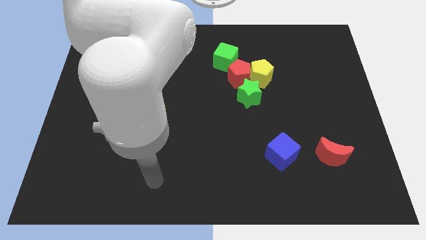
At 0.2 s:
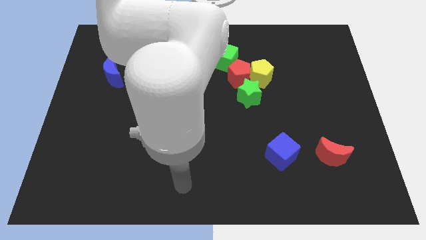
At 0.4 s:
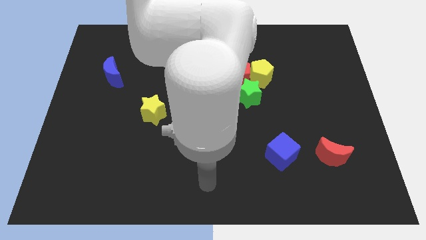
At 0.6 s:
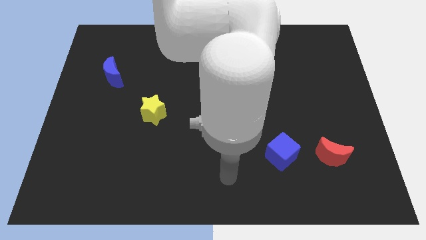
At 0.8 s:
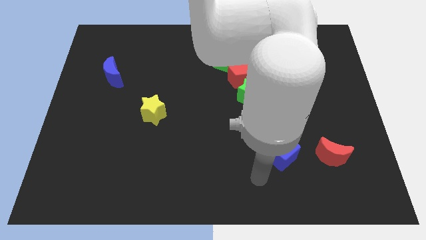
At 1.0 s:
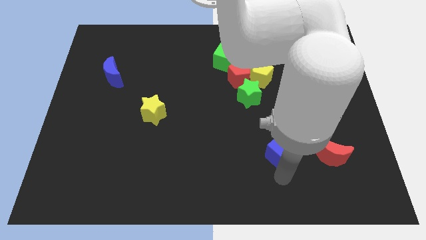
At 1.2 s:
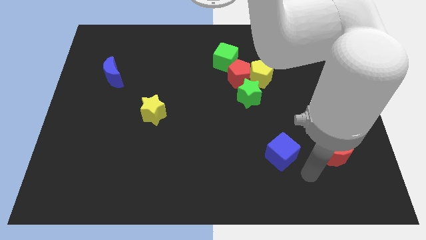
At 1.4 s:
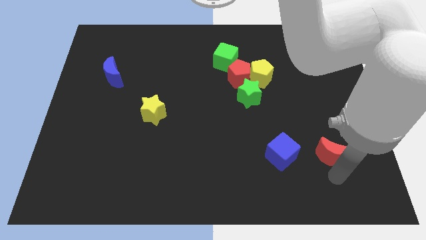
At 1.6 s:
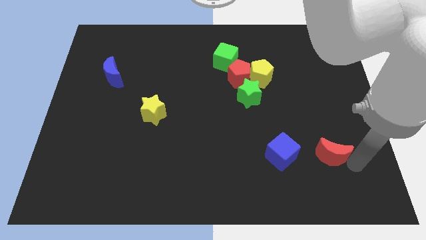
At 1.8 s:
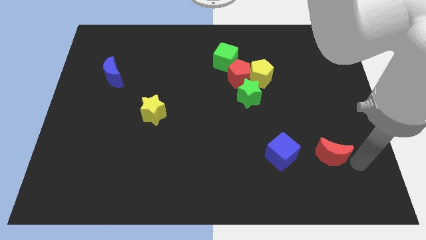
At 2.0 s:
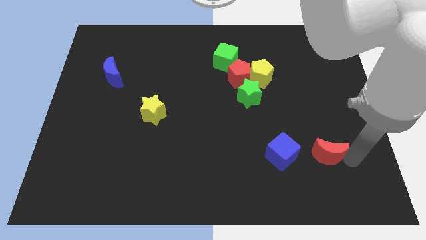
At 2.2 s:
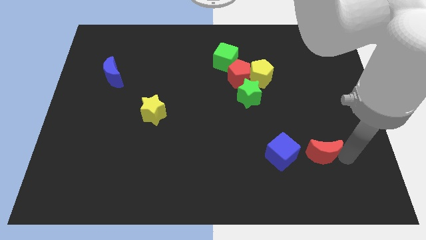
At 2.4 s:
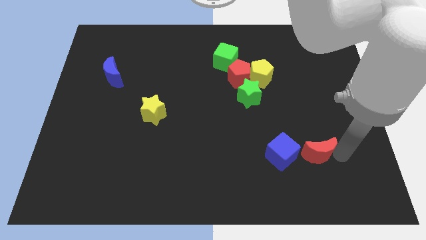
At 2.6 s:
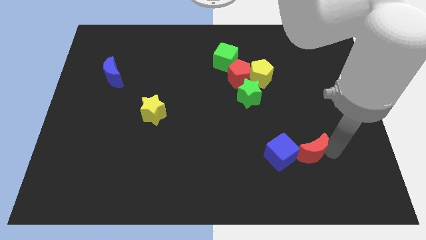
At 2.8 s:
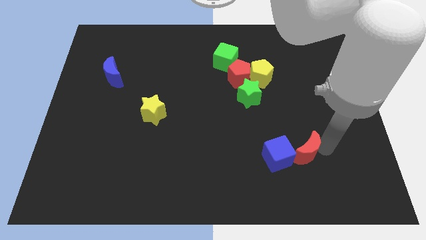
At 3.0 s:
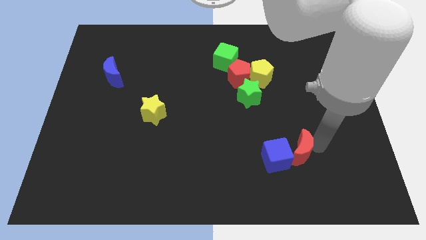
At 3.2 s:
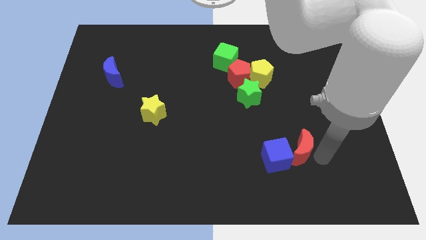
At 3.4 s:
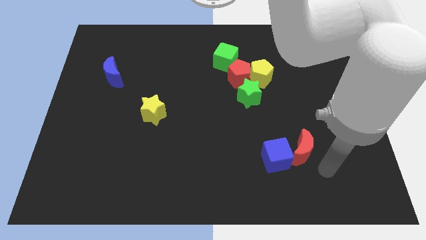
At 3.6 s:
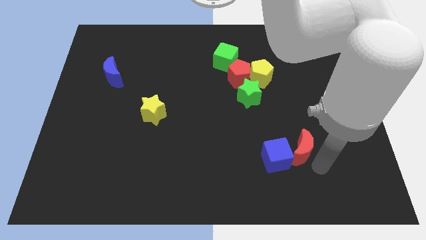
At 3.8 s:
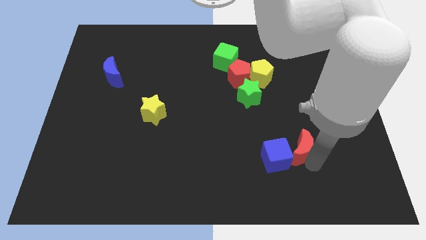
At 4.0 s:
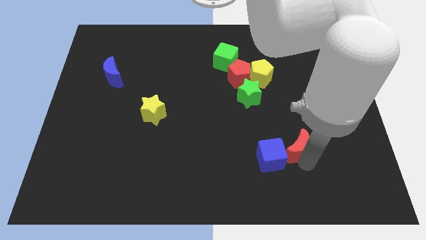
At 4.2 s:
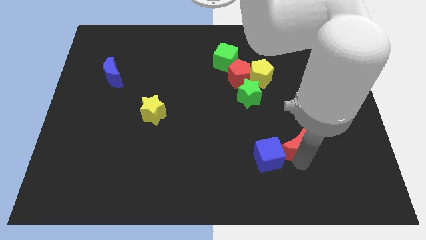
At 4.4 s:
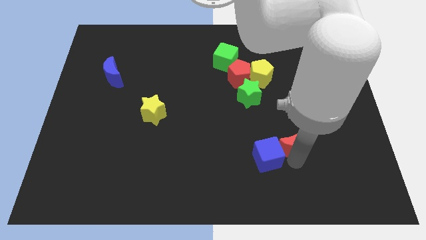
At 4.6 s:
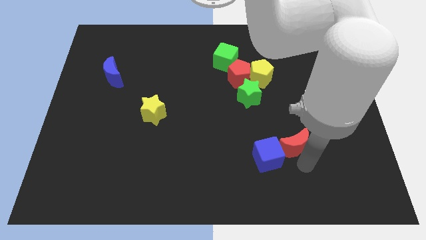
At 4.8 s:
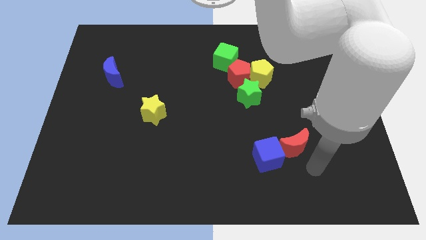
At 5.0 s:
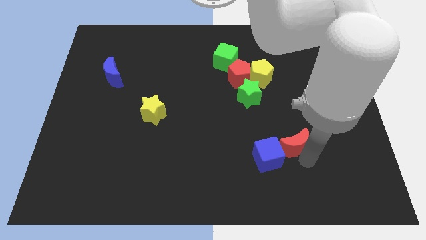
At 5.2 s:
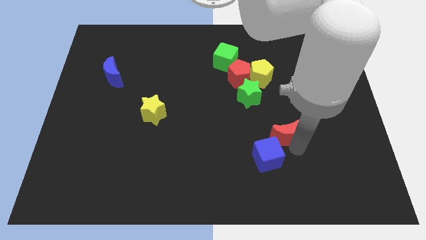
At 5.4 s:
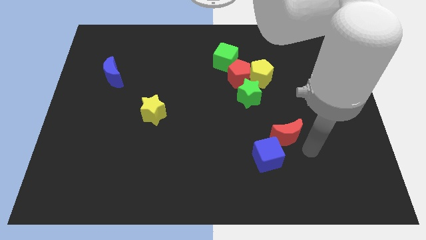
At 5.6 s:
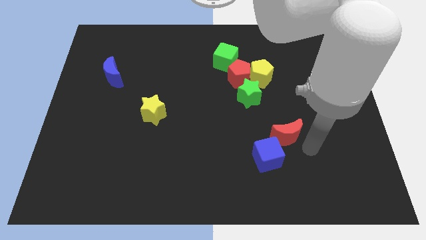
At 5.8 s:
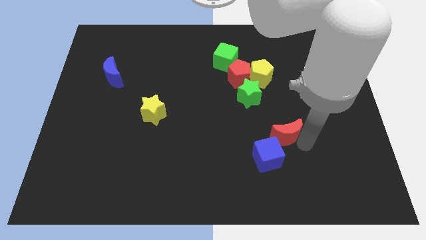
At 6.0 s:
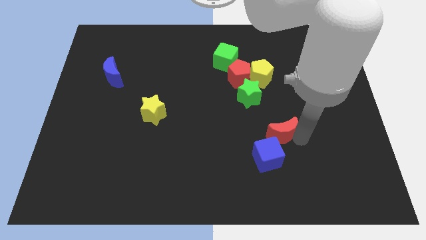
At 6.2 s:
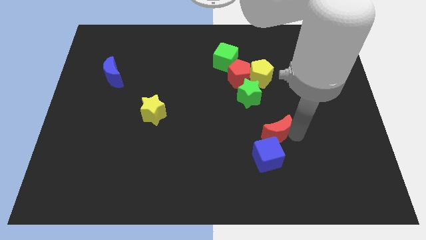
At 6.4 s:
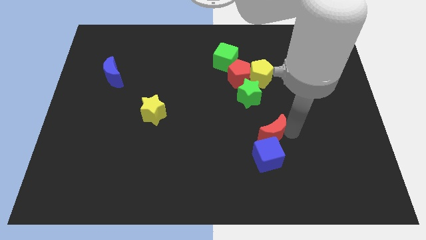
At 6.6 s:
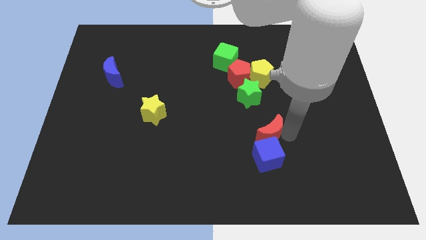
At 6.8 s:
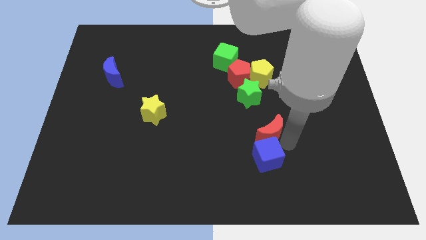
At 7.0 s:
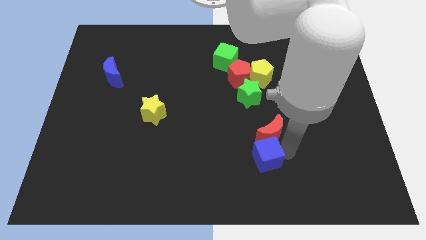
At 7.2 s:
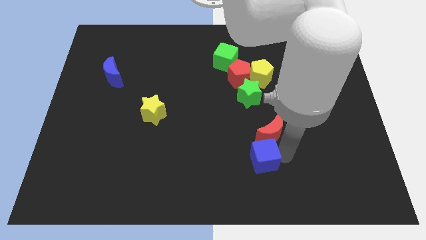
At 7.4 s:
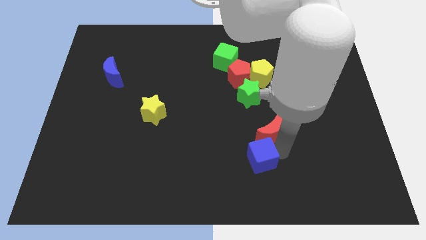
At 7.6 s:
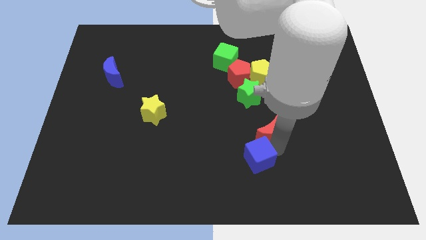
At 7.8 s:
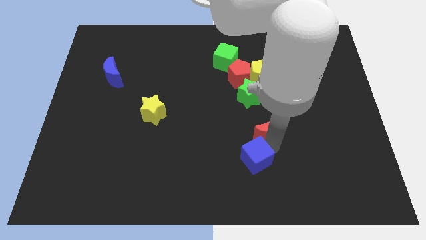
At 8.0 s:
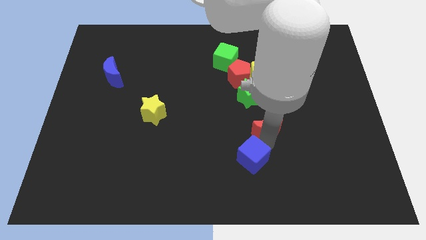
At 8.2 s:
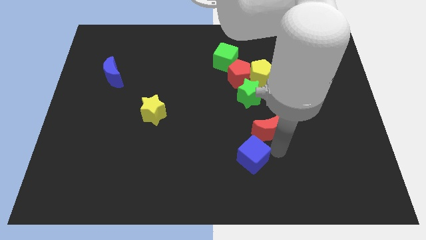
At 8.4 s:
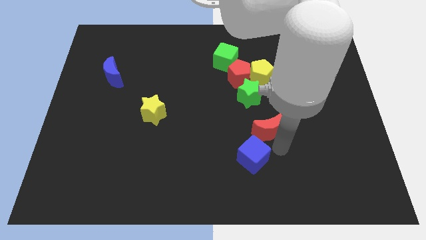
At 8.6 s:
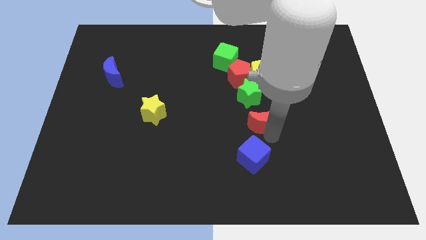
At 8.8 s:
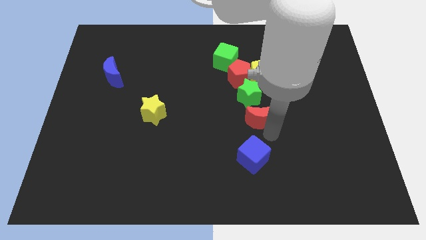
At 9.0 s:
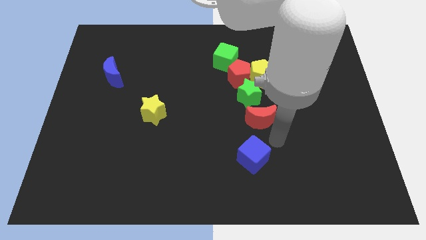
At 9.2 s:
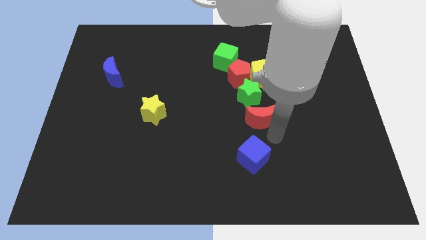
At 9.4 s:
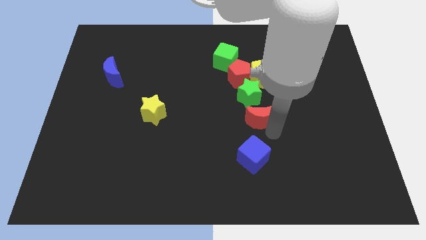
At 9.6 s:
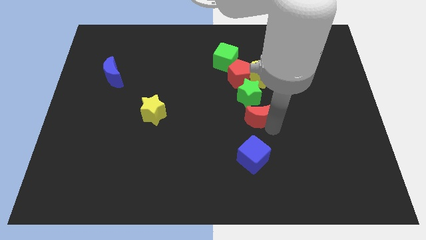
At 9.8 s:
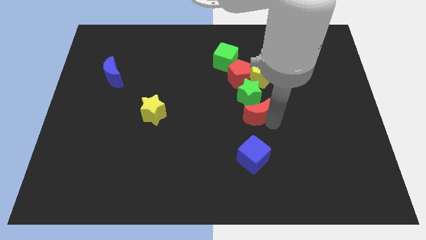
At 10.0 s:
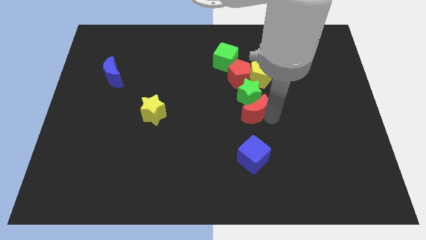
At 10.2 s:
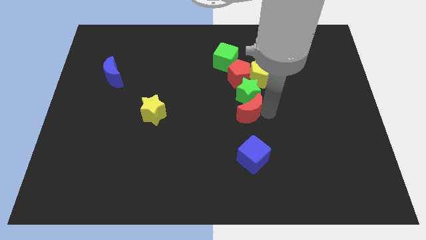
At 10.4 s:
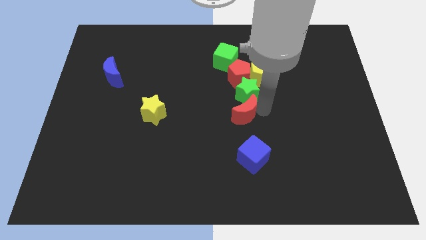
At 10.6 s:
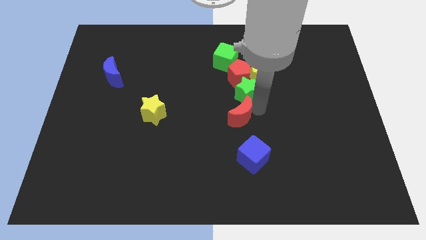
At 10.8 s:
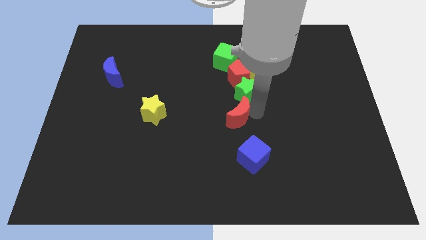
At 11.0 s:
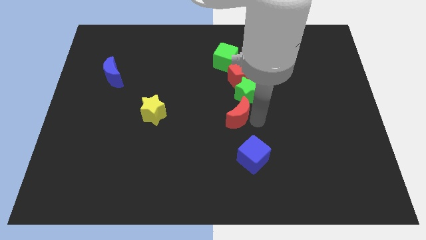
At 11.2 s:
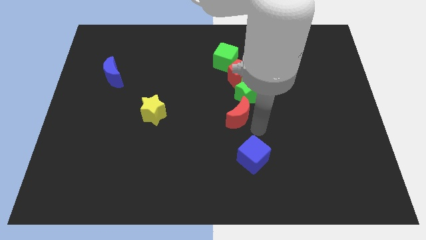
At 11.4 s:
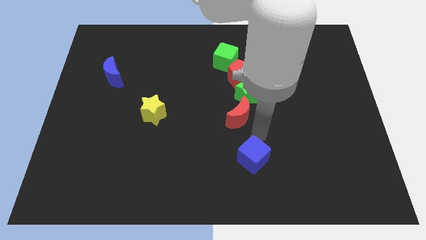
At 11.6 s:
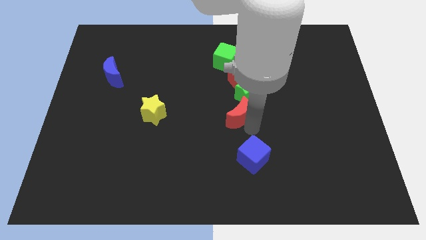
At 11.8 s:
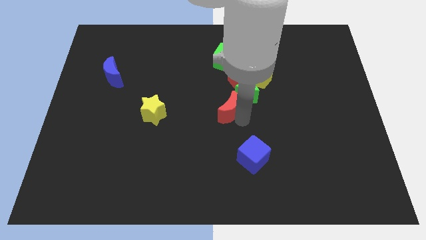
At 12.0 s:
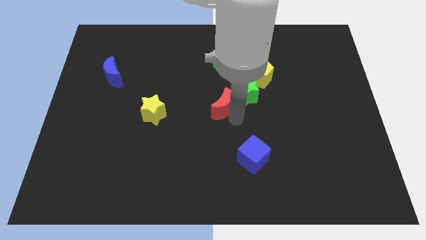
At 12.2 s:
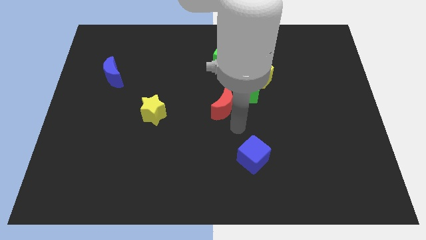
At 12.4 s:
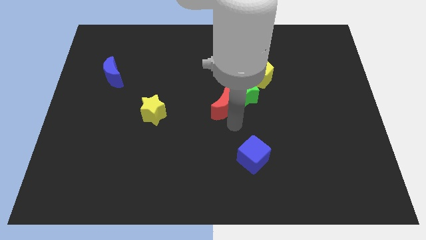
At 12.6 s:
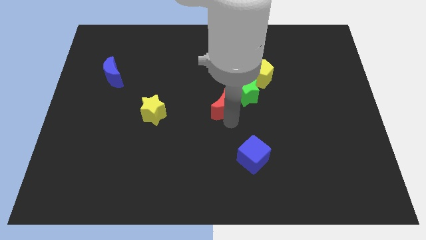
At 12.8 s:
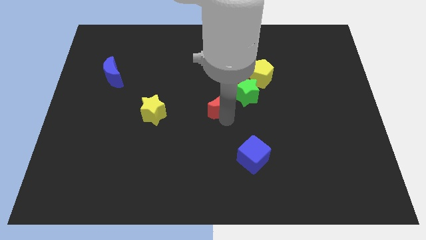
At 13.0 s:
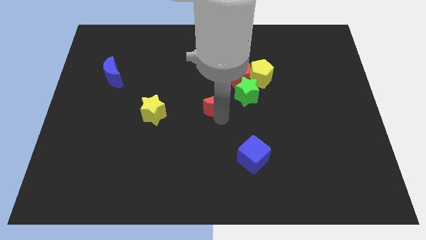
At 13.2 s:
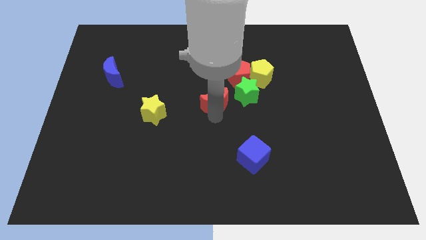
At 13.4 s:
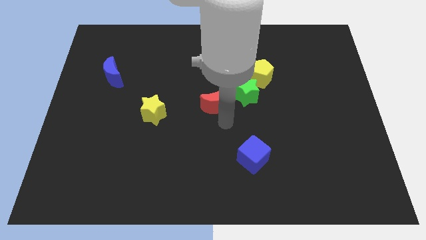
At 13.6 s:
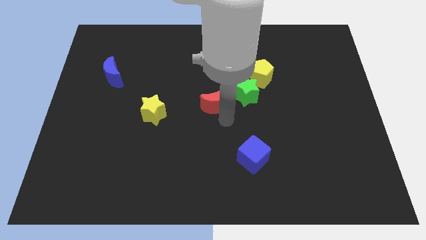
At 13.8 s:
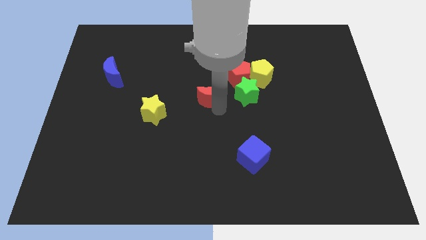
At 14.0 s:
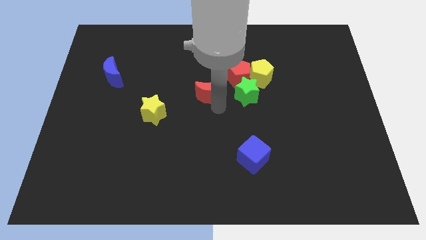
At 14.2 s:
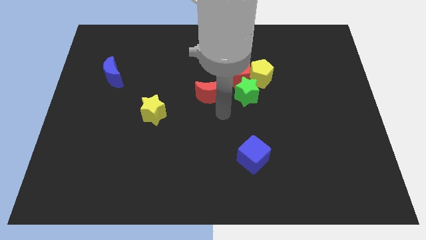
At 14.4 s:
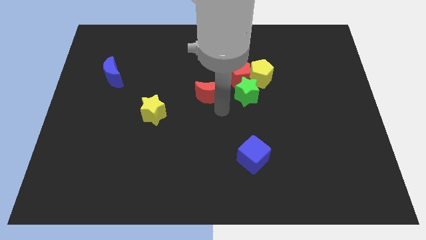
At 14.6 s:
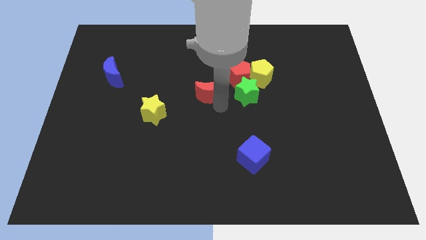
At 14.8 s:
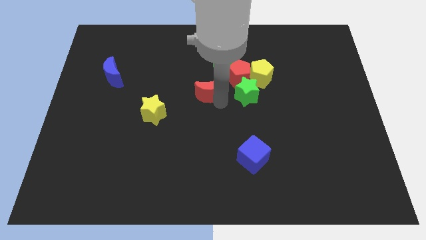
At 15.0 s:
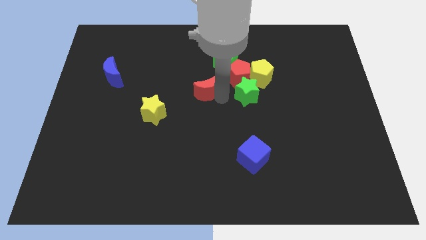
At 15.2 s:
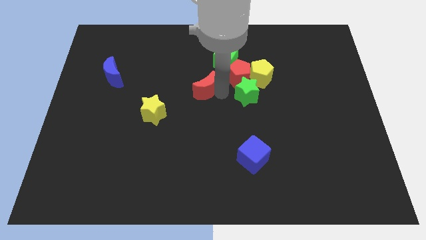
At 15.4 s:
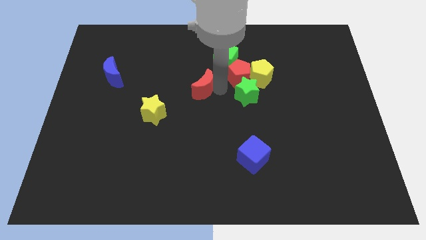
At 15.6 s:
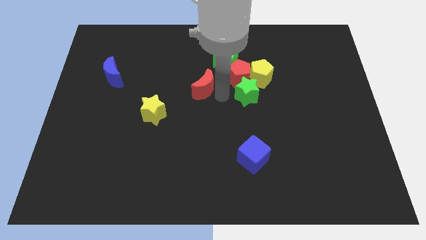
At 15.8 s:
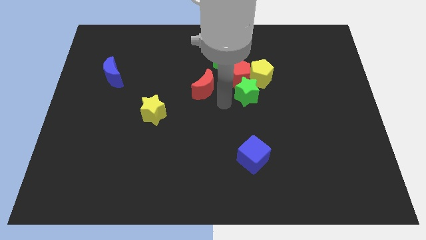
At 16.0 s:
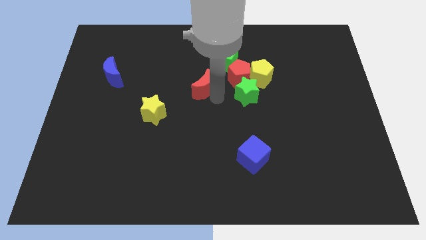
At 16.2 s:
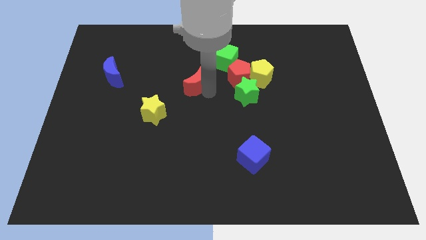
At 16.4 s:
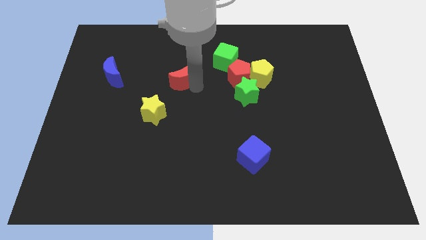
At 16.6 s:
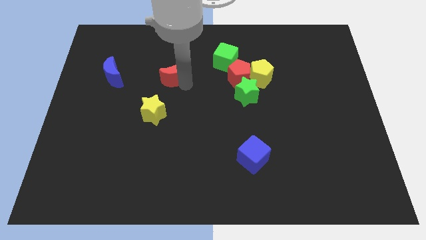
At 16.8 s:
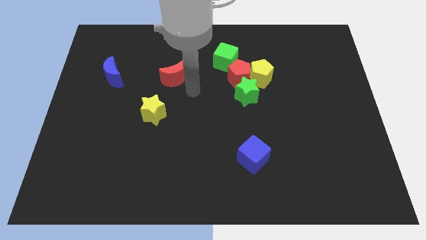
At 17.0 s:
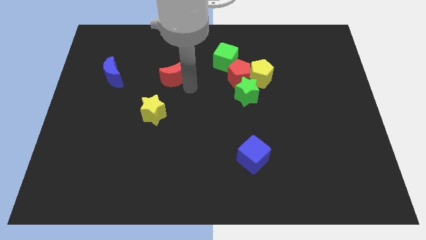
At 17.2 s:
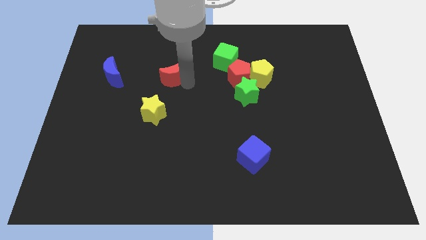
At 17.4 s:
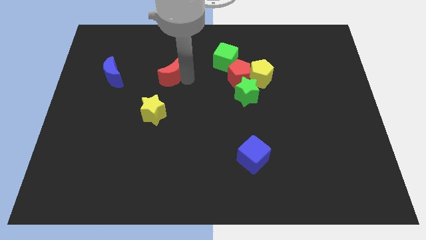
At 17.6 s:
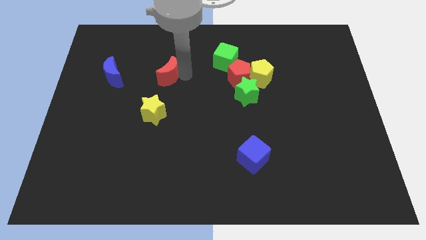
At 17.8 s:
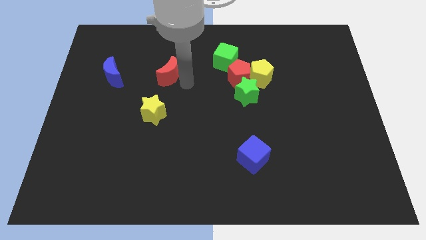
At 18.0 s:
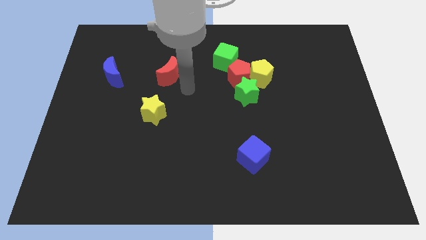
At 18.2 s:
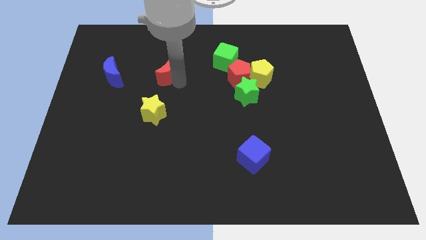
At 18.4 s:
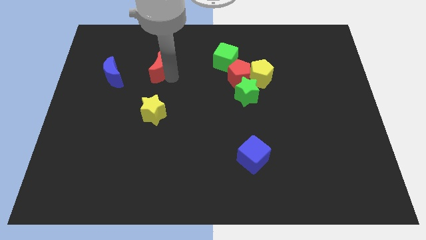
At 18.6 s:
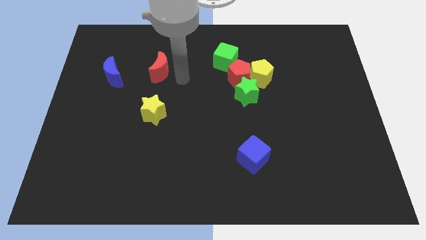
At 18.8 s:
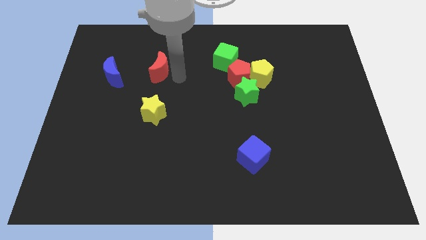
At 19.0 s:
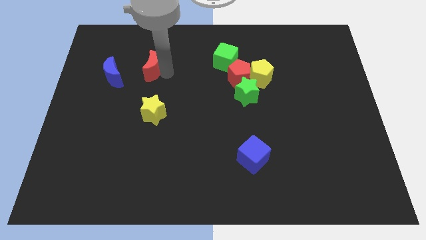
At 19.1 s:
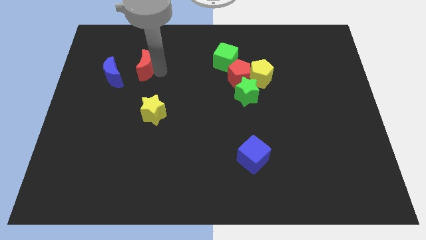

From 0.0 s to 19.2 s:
push the red moon to the top right side of the blue moon
